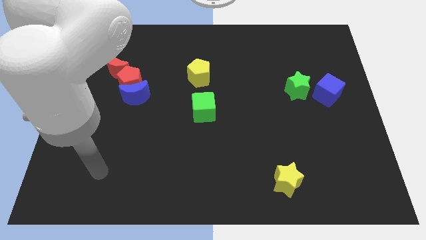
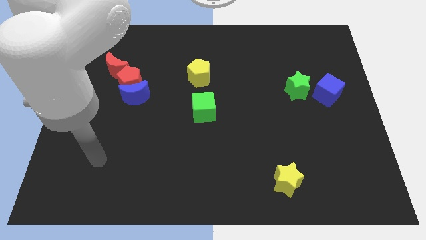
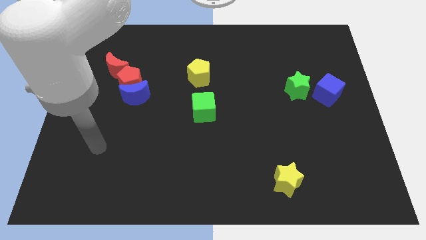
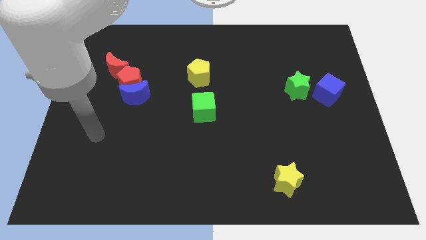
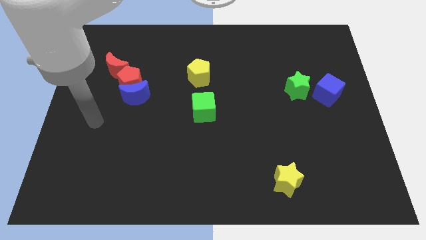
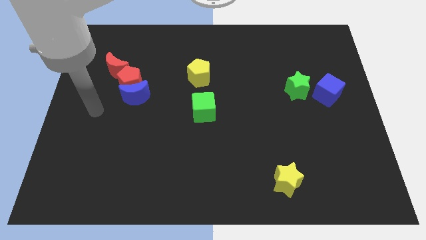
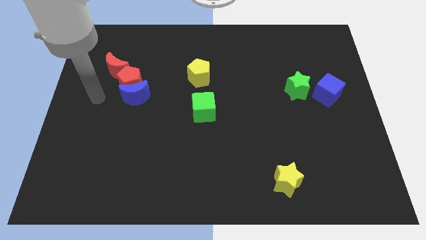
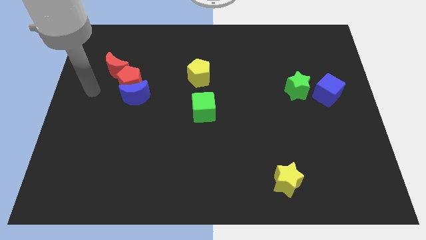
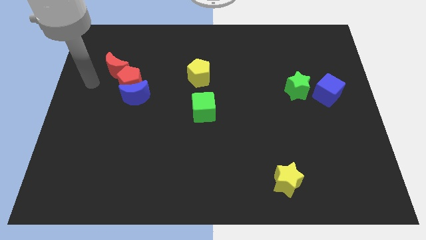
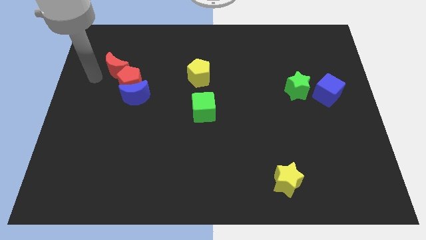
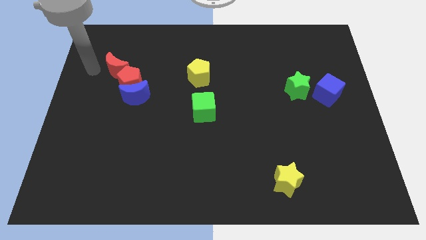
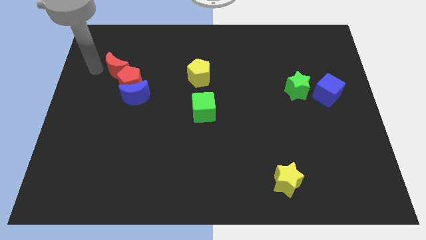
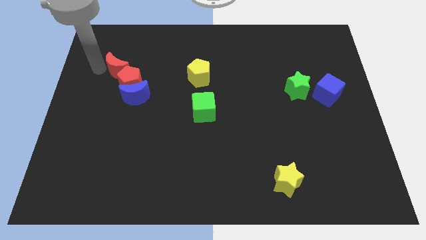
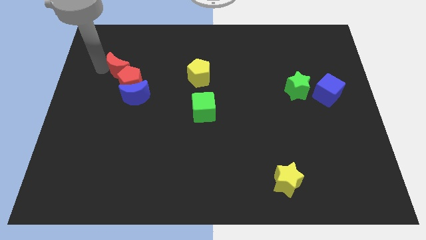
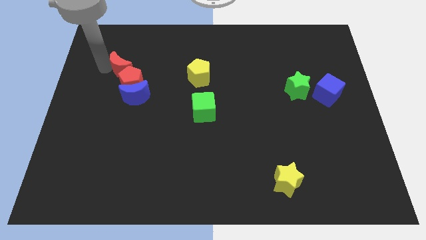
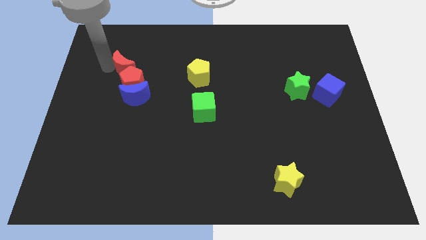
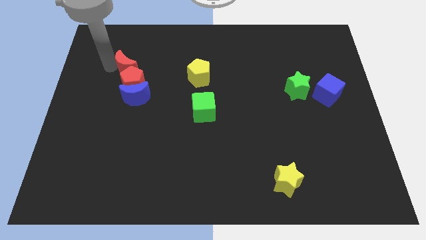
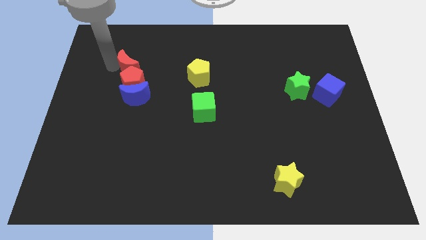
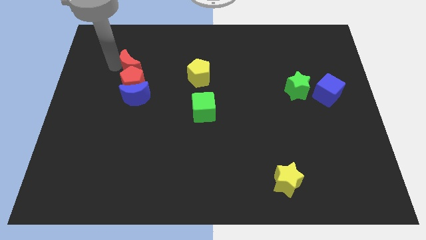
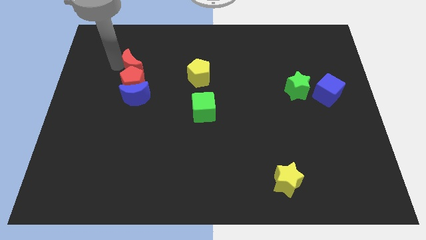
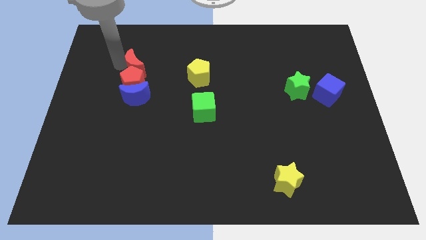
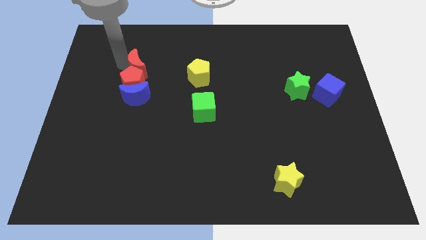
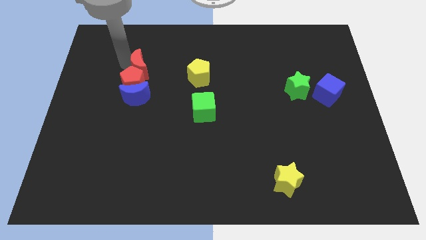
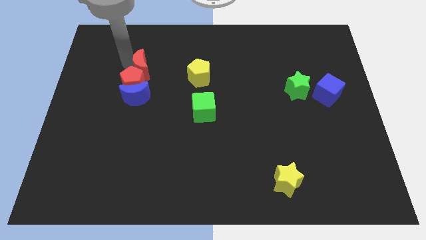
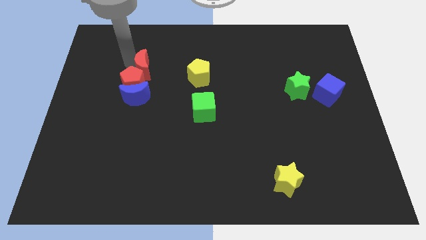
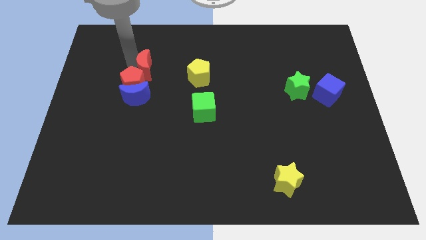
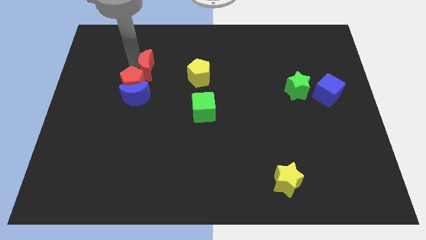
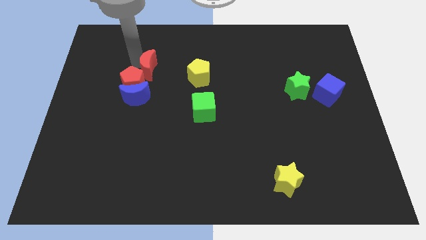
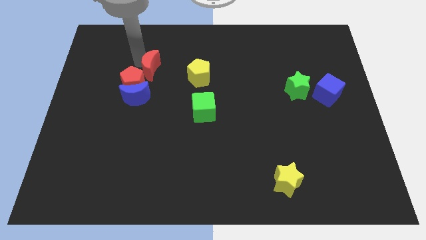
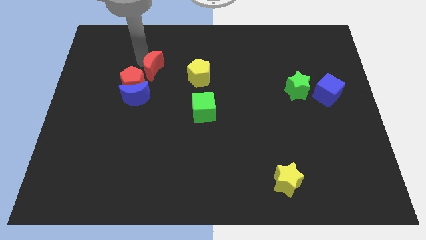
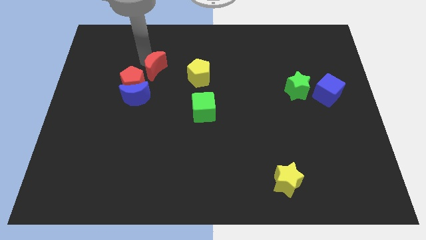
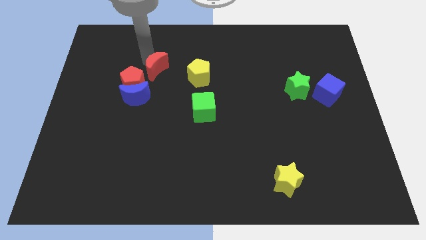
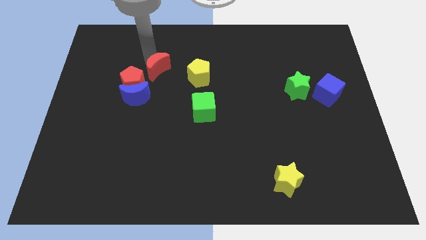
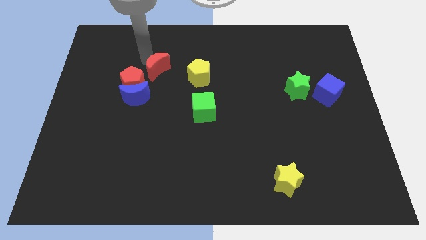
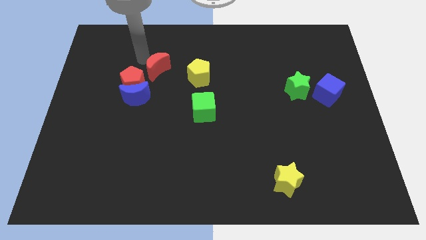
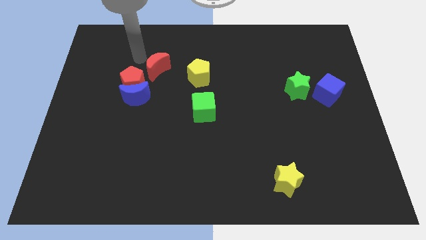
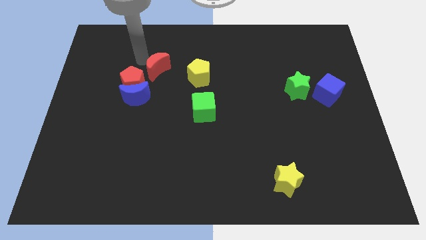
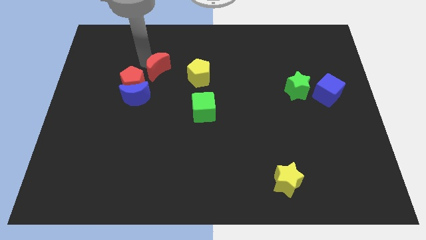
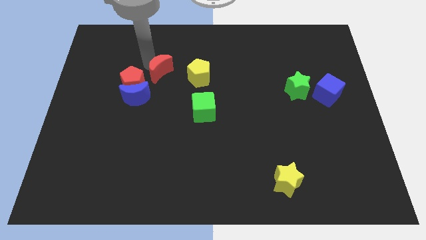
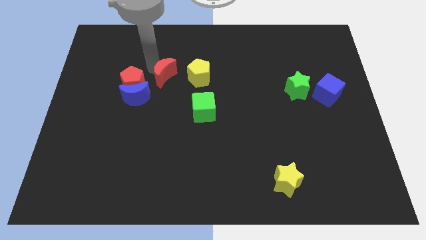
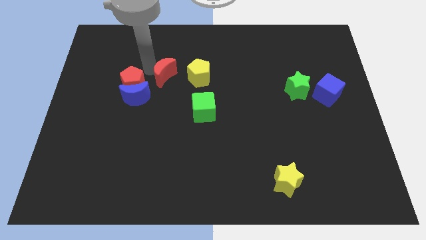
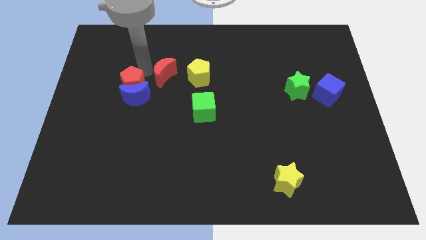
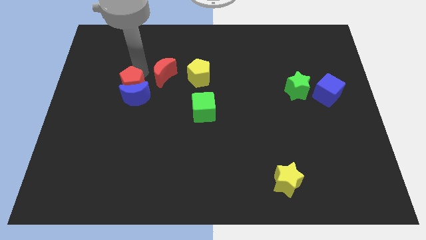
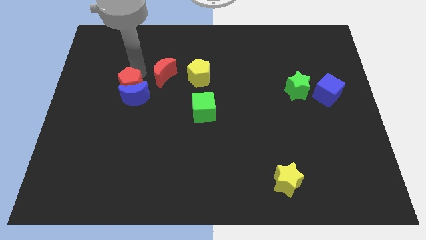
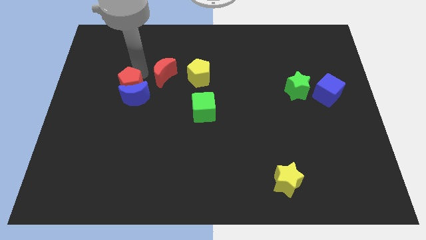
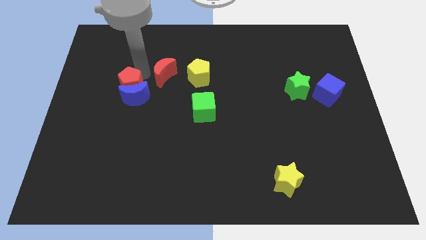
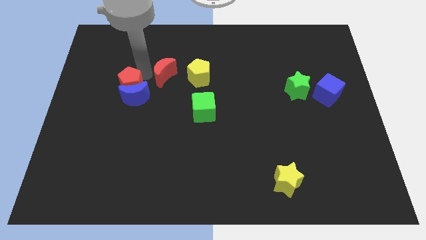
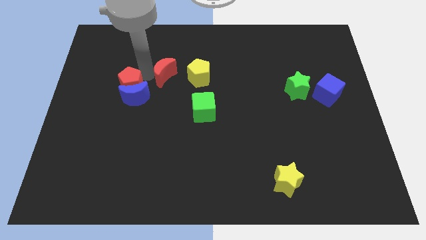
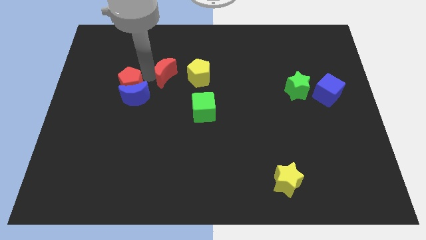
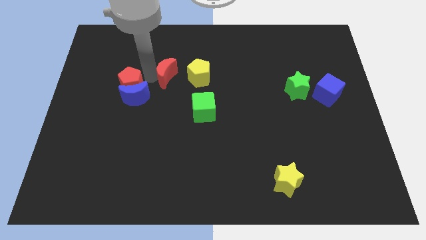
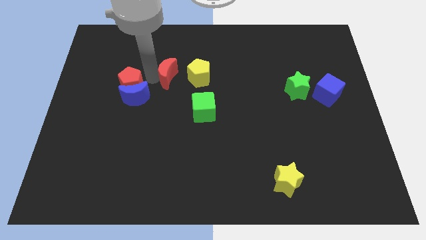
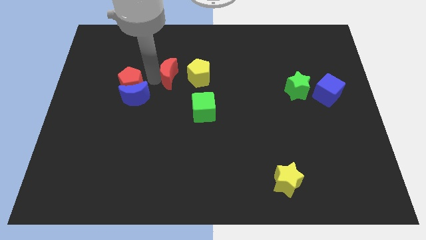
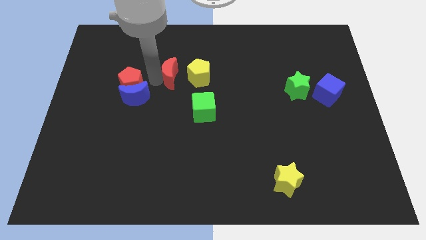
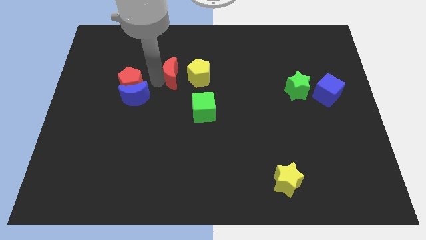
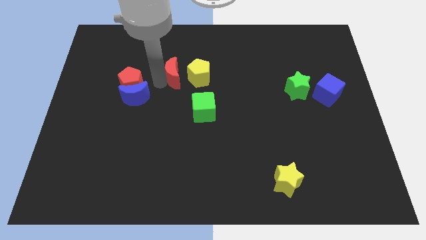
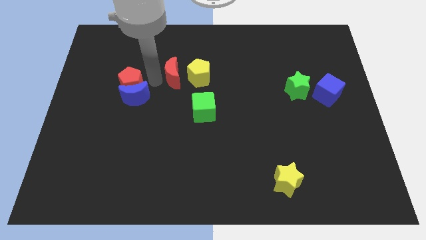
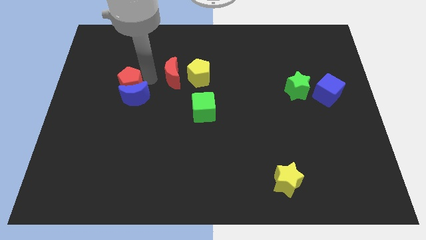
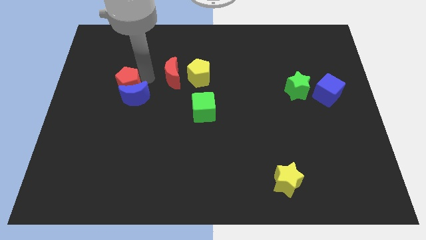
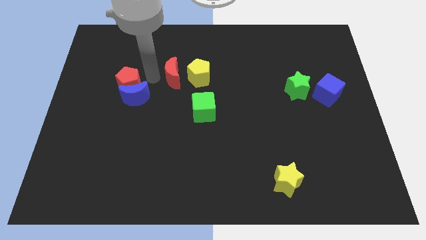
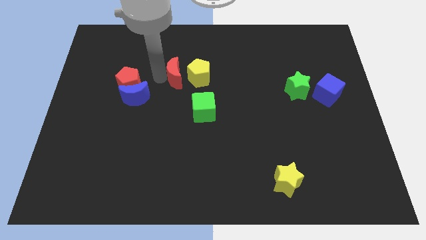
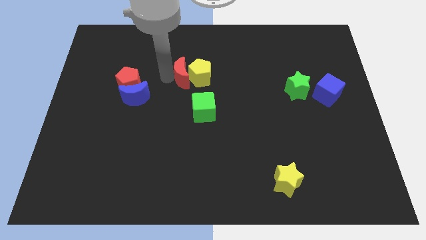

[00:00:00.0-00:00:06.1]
slide the red moon close to the yellow pentagon
